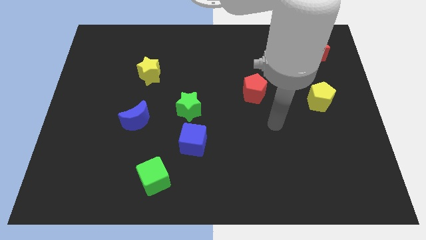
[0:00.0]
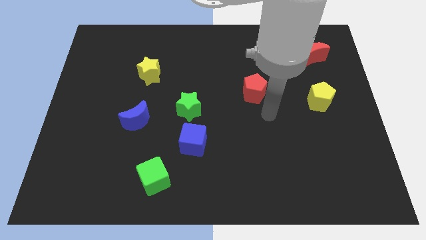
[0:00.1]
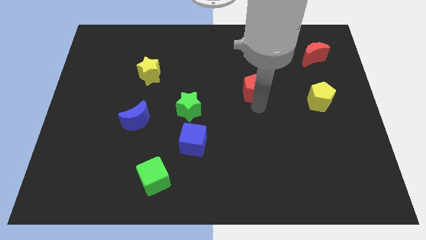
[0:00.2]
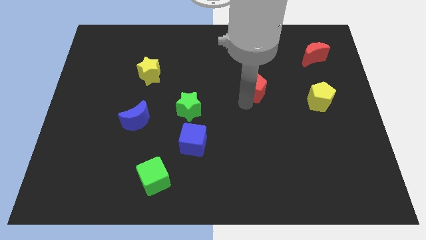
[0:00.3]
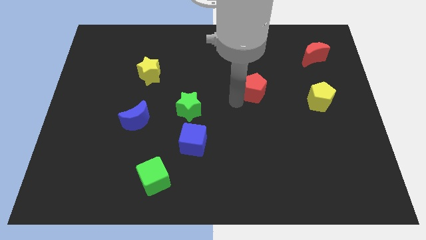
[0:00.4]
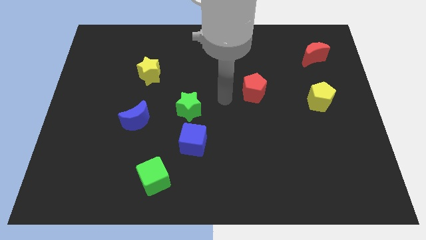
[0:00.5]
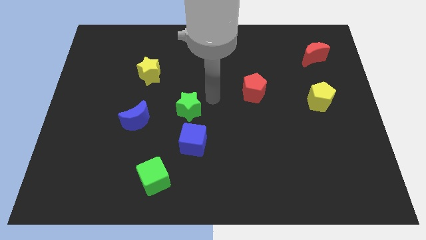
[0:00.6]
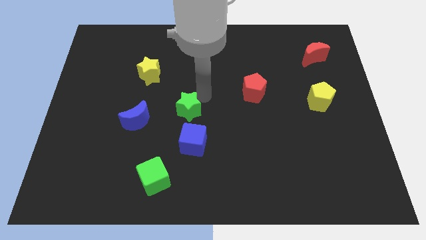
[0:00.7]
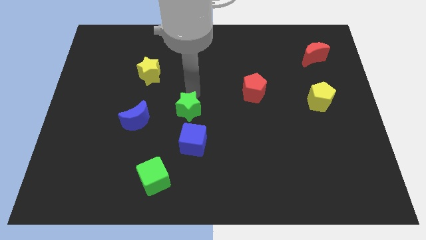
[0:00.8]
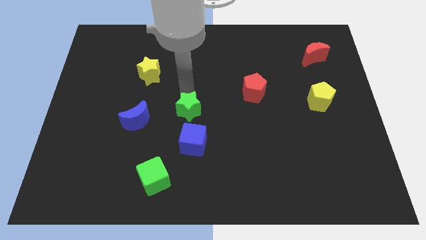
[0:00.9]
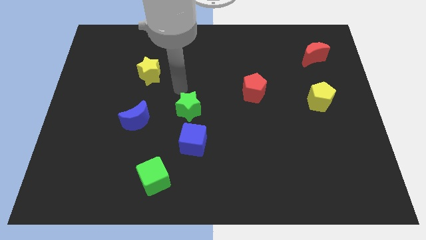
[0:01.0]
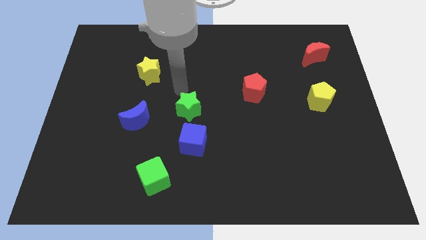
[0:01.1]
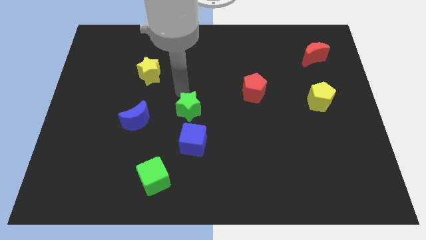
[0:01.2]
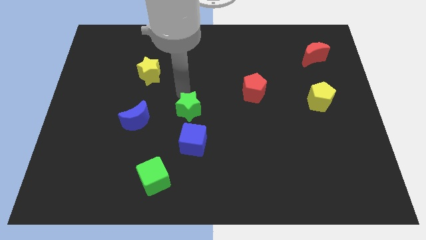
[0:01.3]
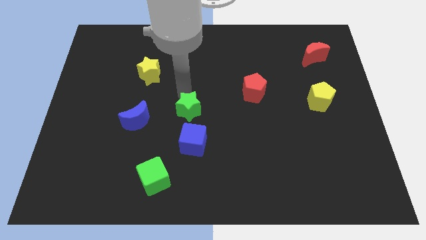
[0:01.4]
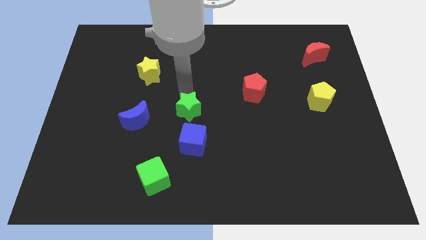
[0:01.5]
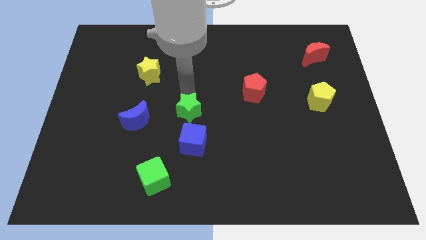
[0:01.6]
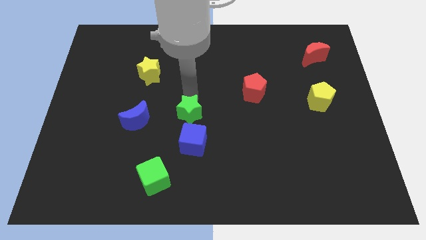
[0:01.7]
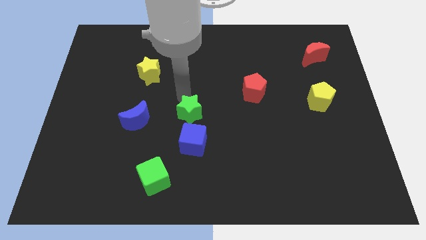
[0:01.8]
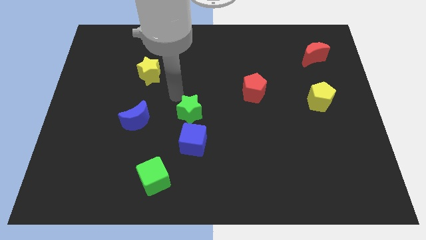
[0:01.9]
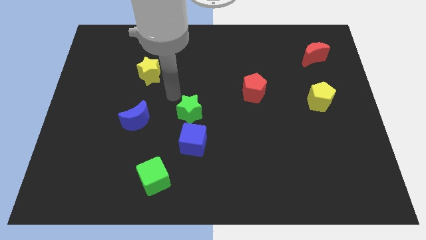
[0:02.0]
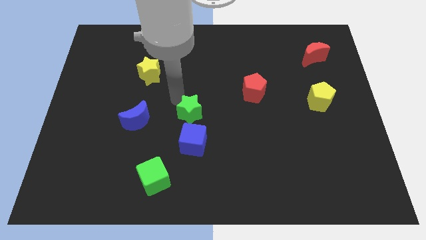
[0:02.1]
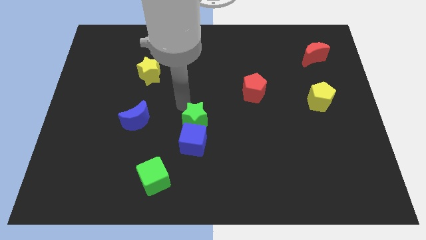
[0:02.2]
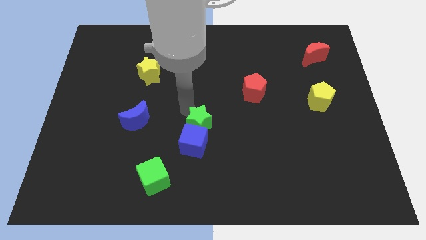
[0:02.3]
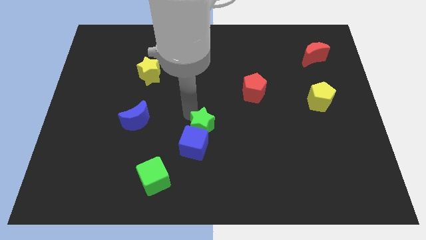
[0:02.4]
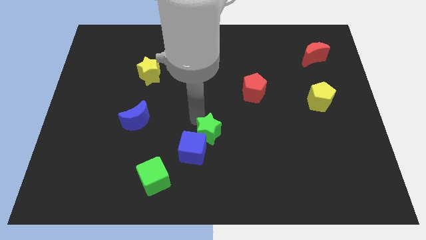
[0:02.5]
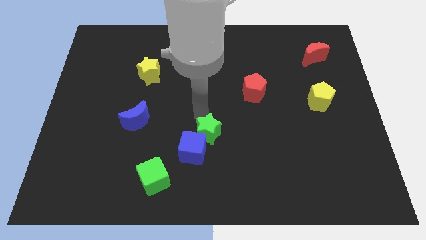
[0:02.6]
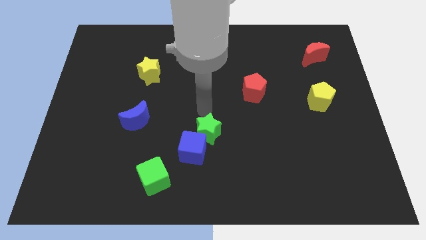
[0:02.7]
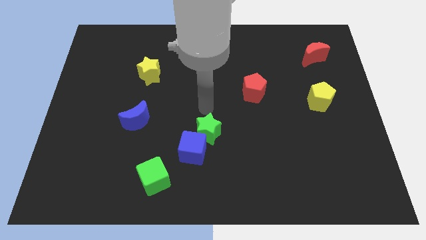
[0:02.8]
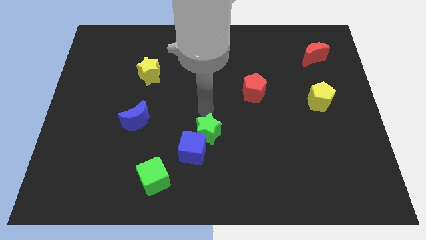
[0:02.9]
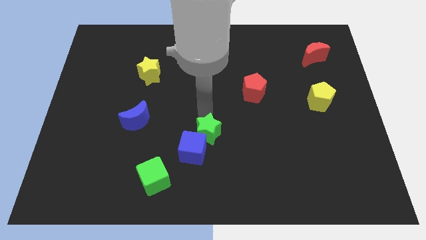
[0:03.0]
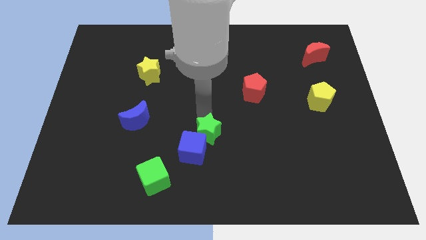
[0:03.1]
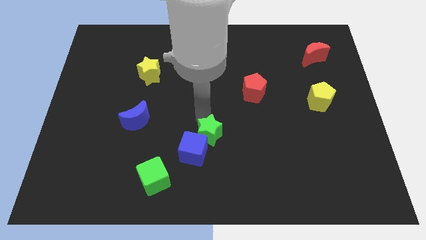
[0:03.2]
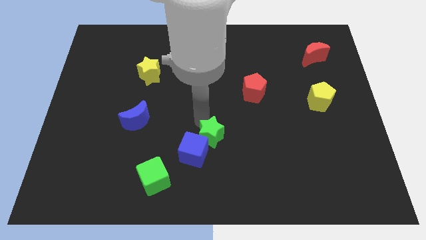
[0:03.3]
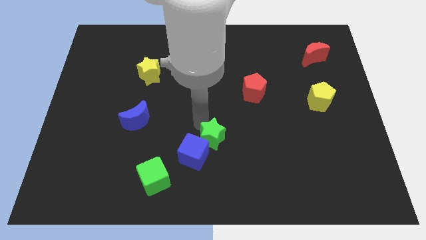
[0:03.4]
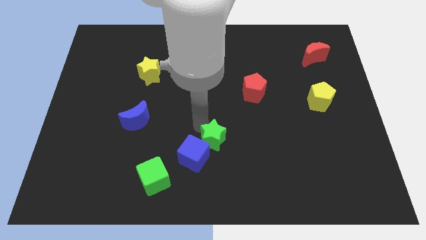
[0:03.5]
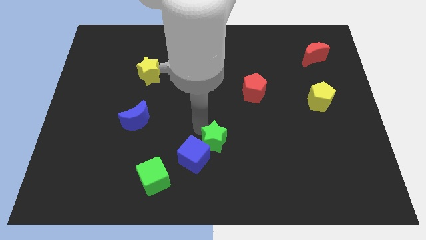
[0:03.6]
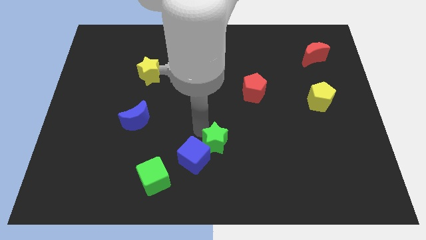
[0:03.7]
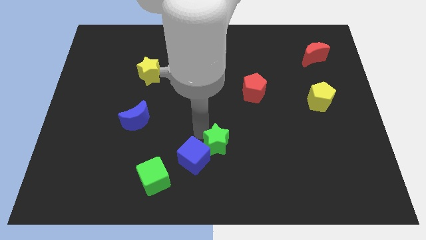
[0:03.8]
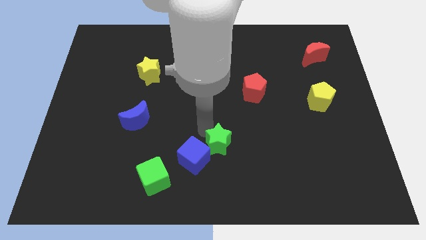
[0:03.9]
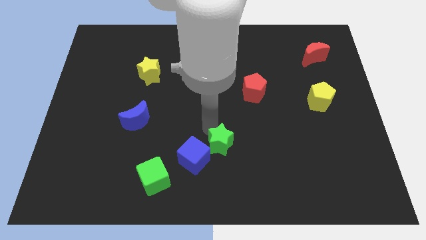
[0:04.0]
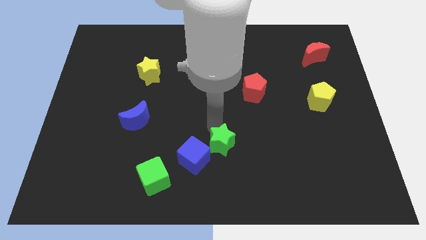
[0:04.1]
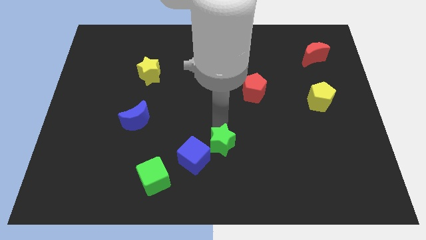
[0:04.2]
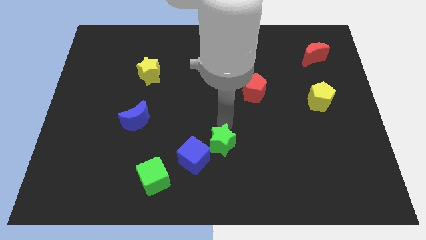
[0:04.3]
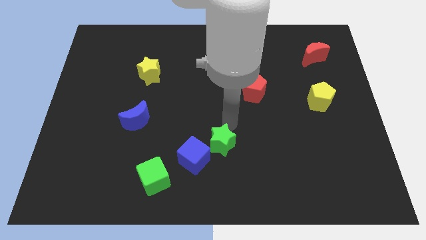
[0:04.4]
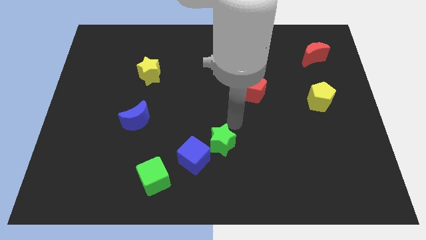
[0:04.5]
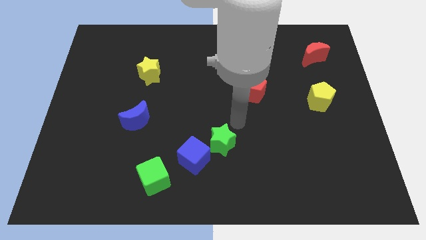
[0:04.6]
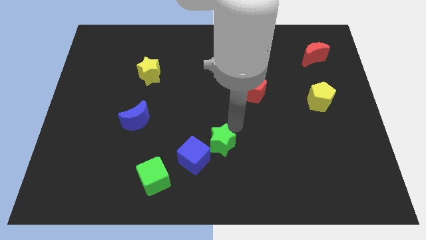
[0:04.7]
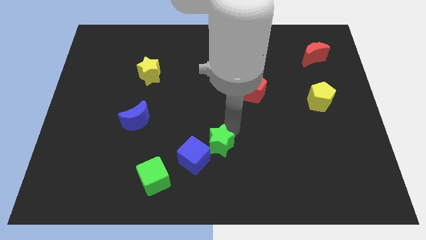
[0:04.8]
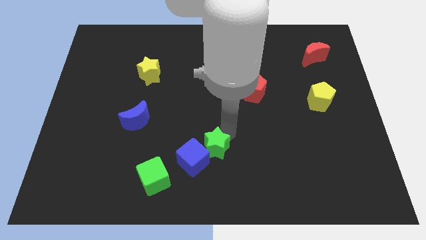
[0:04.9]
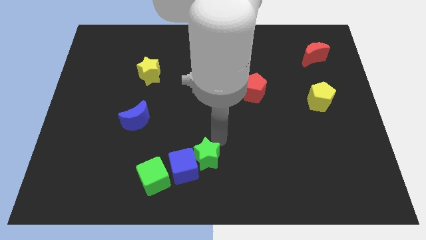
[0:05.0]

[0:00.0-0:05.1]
put the green star to the bottom side
